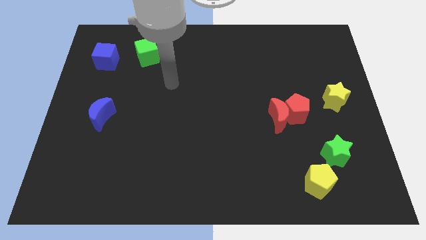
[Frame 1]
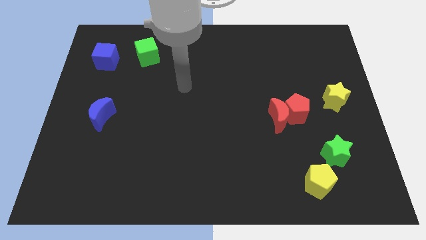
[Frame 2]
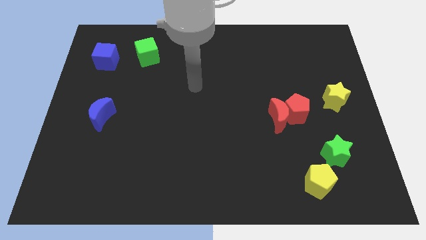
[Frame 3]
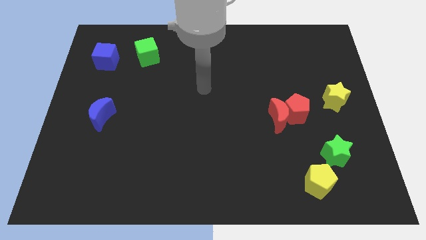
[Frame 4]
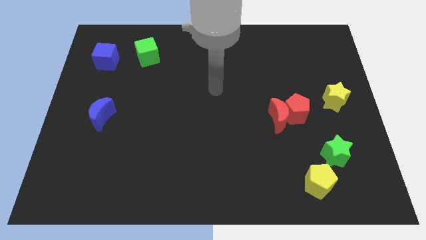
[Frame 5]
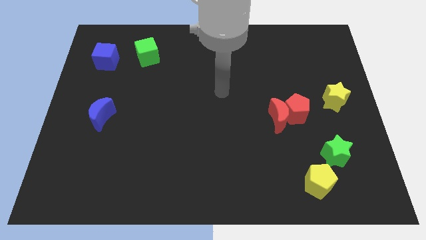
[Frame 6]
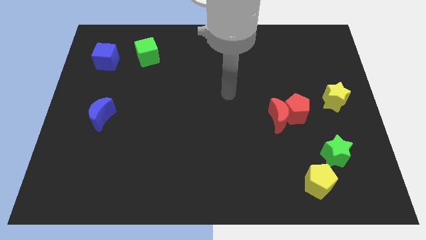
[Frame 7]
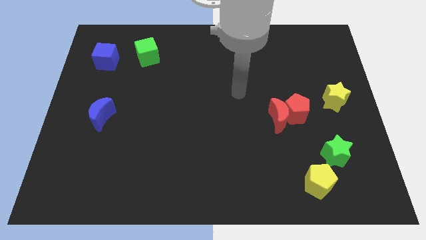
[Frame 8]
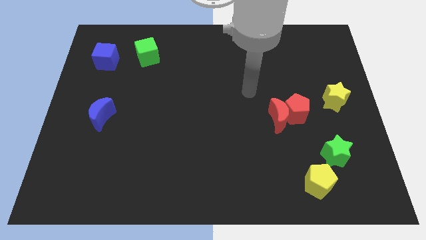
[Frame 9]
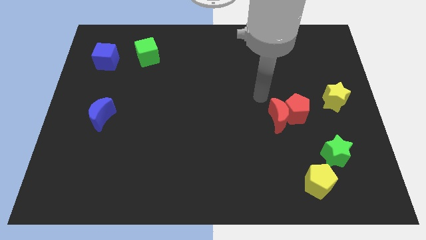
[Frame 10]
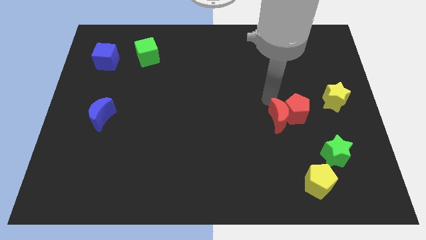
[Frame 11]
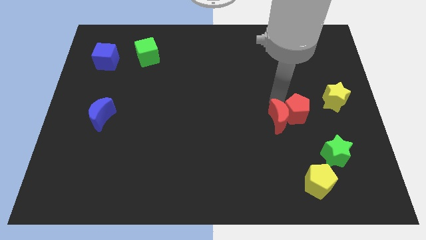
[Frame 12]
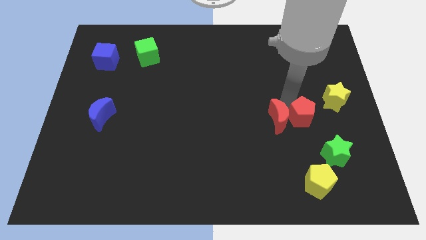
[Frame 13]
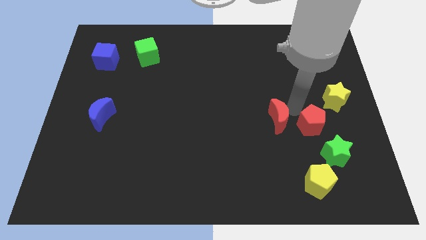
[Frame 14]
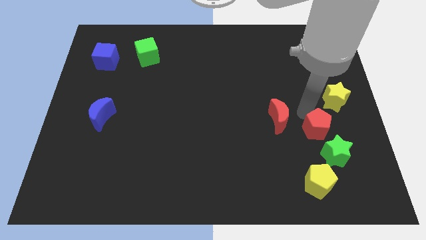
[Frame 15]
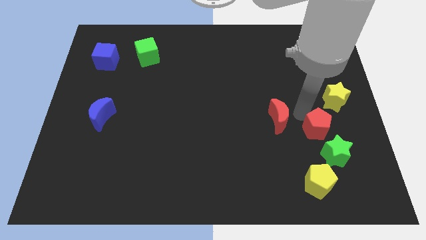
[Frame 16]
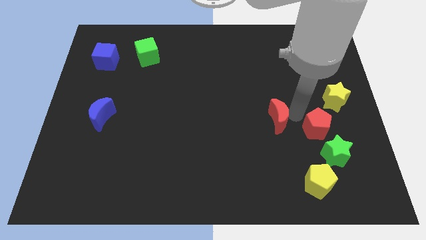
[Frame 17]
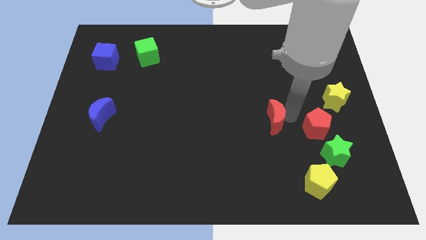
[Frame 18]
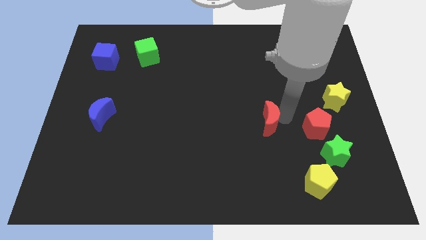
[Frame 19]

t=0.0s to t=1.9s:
move the red moon away from the red pentagon

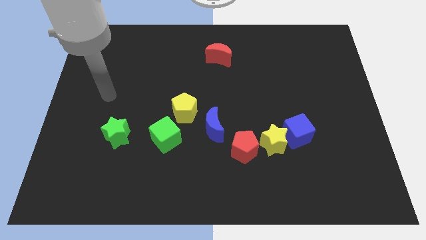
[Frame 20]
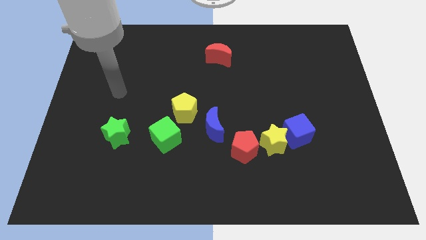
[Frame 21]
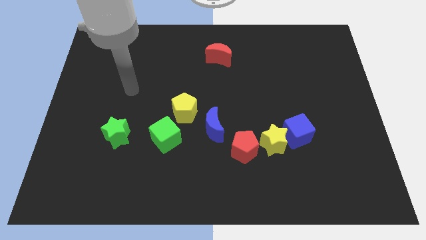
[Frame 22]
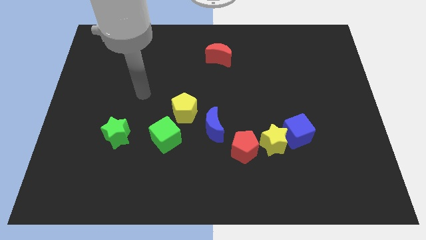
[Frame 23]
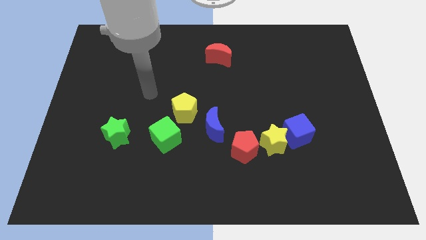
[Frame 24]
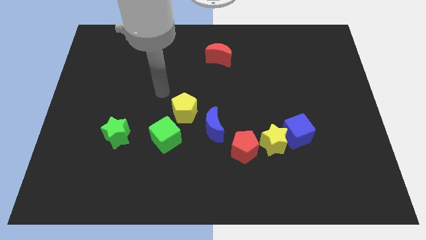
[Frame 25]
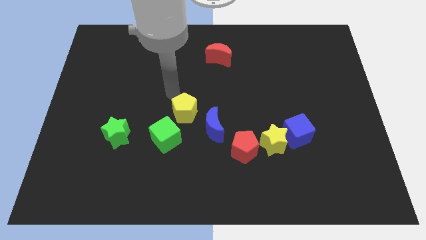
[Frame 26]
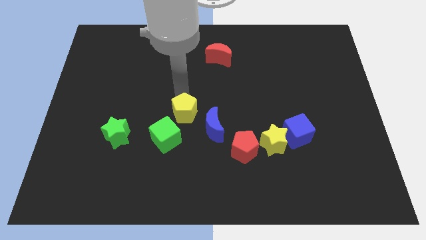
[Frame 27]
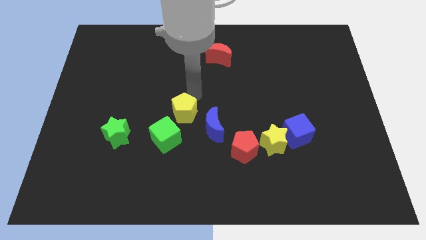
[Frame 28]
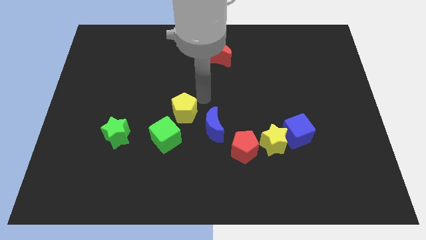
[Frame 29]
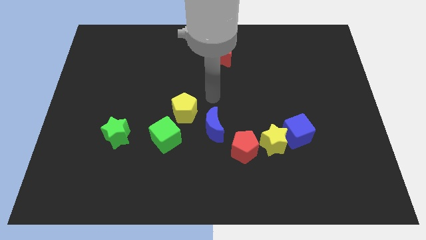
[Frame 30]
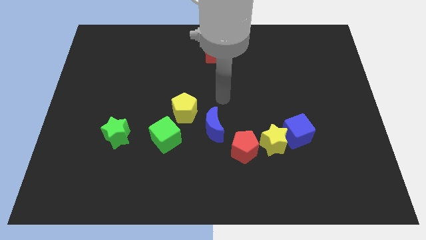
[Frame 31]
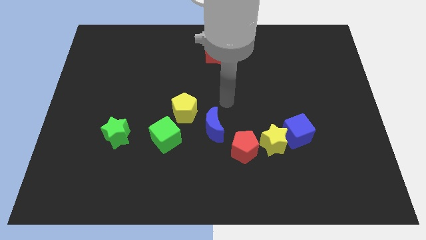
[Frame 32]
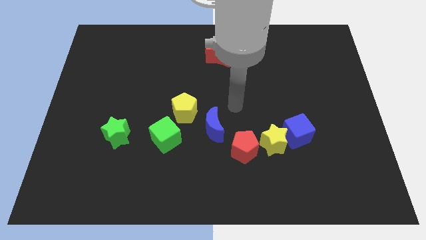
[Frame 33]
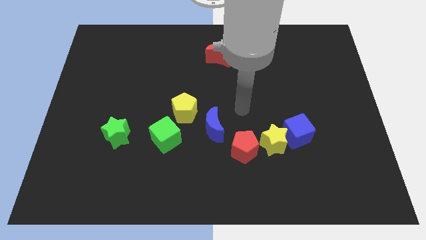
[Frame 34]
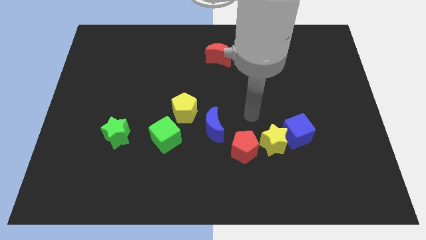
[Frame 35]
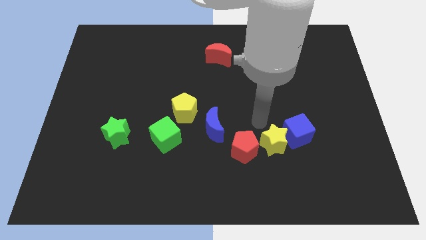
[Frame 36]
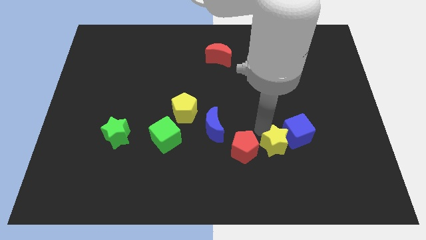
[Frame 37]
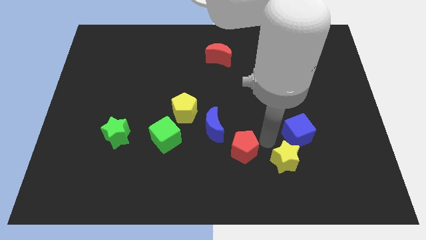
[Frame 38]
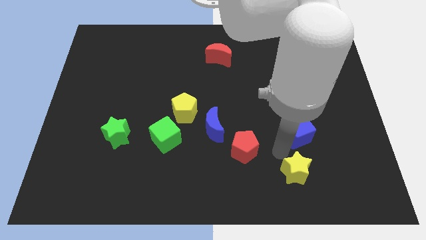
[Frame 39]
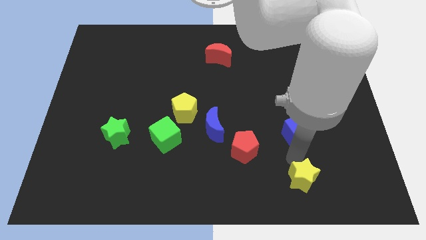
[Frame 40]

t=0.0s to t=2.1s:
move the blue cube away from the yellow star

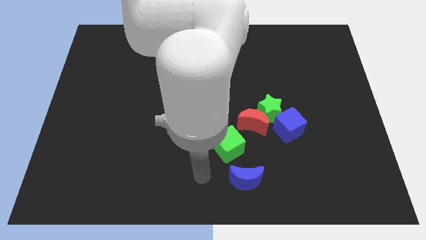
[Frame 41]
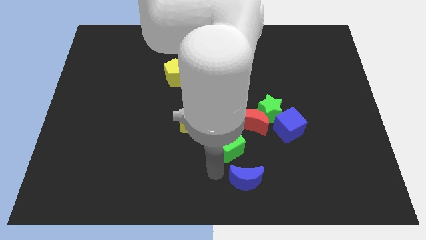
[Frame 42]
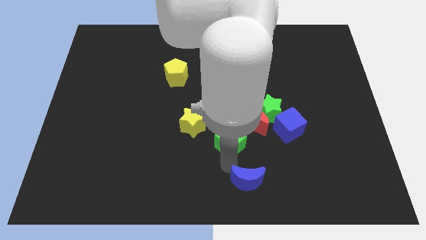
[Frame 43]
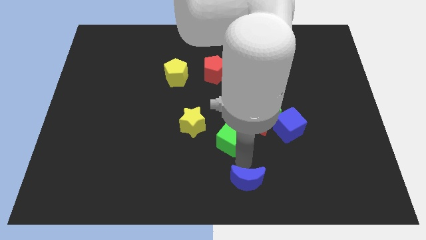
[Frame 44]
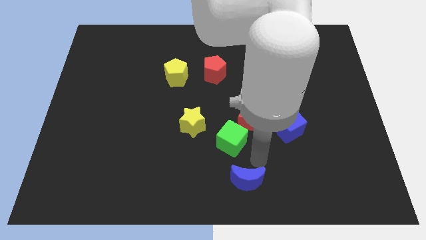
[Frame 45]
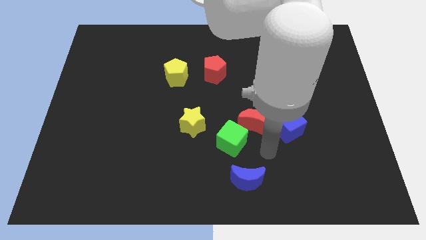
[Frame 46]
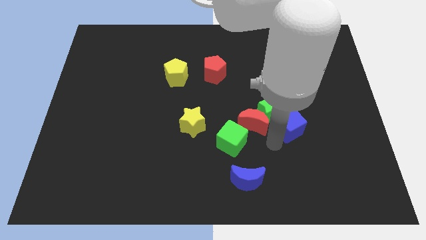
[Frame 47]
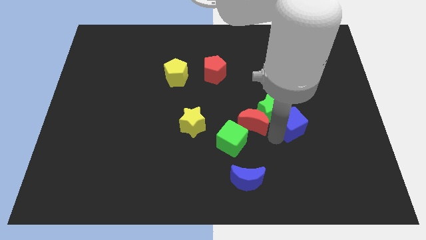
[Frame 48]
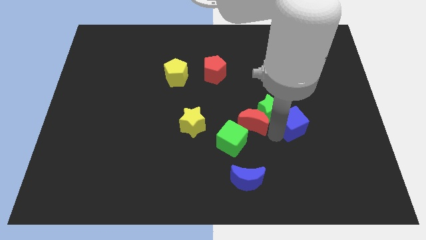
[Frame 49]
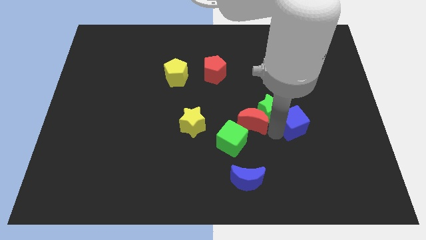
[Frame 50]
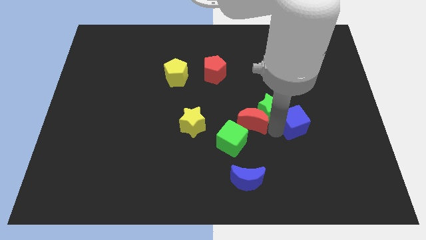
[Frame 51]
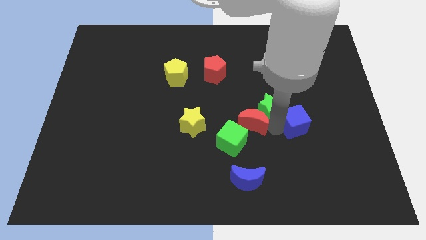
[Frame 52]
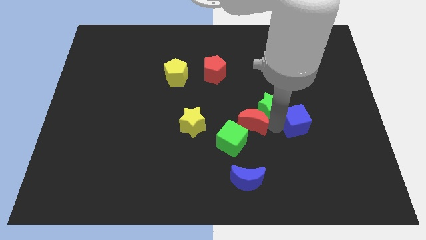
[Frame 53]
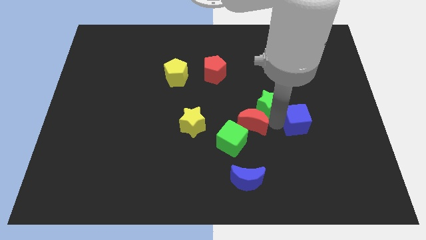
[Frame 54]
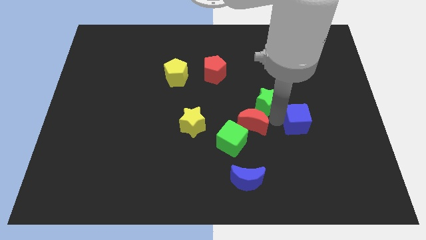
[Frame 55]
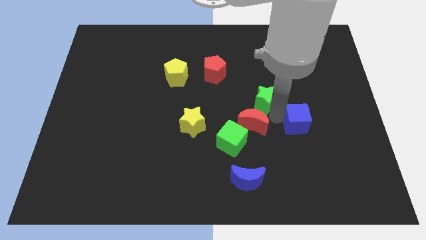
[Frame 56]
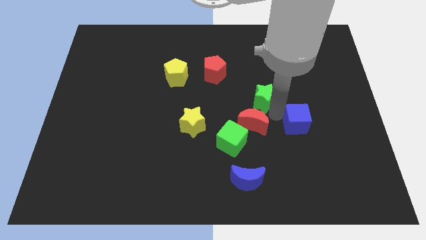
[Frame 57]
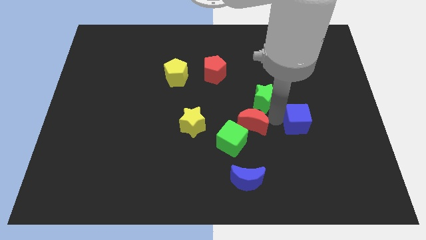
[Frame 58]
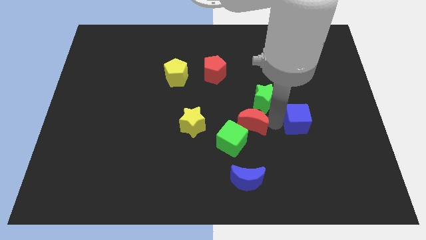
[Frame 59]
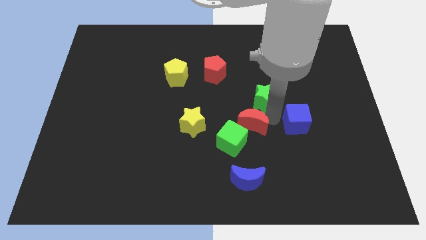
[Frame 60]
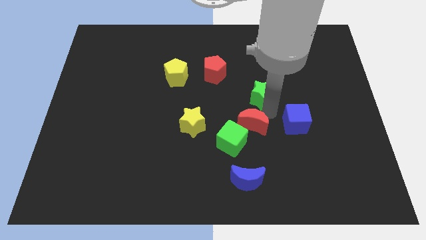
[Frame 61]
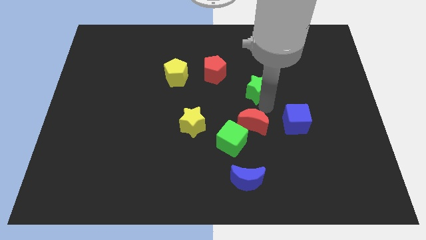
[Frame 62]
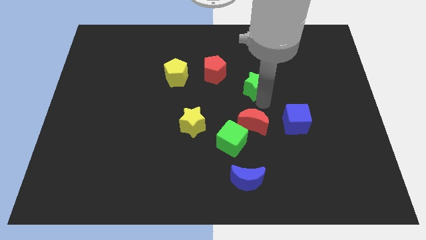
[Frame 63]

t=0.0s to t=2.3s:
separate the green star from the red moon and blue cube

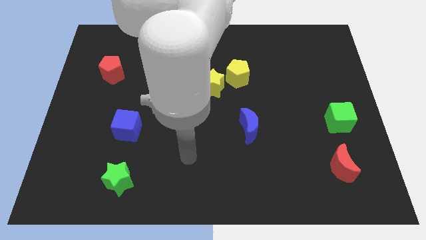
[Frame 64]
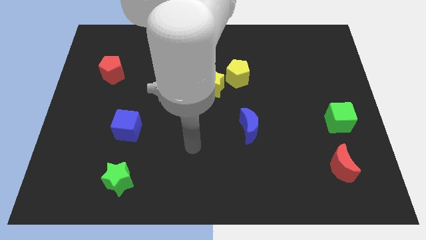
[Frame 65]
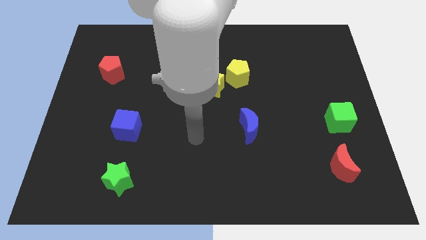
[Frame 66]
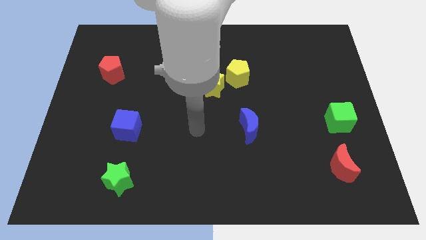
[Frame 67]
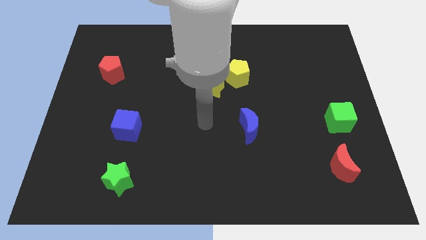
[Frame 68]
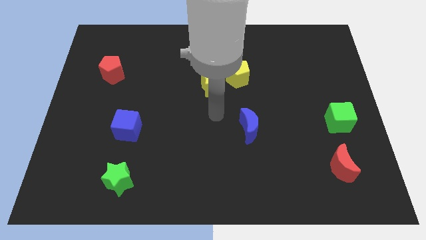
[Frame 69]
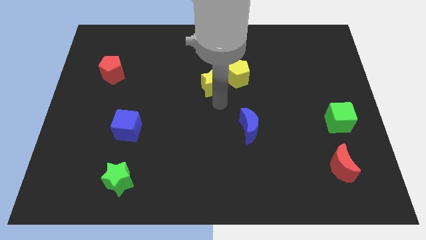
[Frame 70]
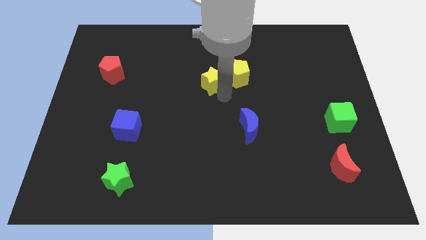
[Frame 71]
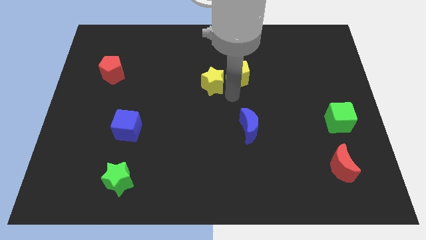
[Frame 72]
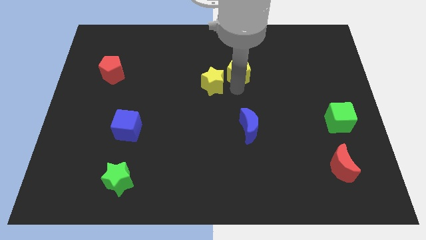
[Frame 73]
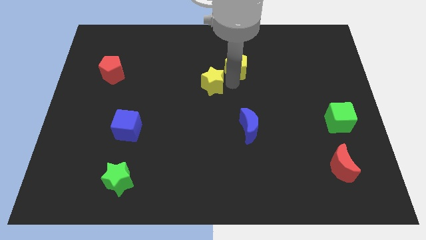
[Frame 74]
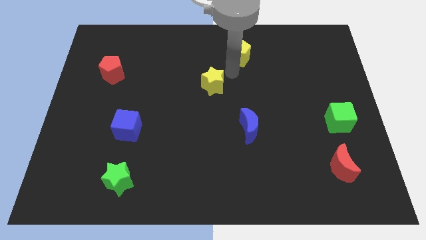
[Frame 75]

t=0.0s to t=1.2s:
move the yellow star away from the yellow pentagon

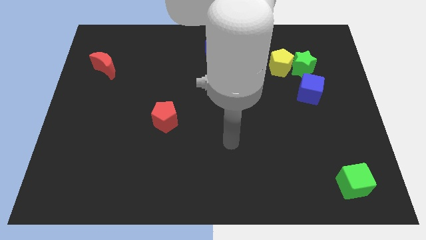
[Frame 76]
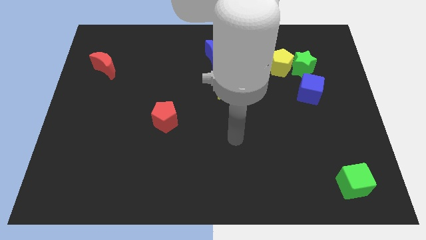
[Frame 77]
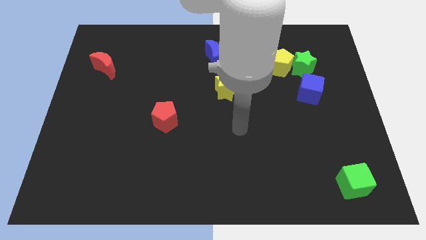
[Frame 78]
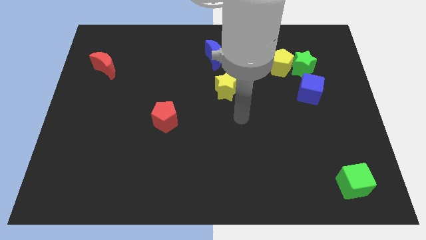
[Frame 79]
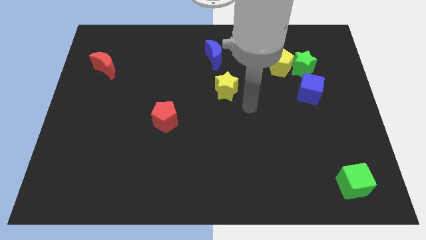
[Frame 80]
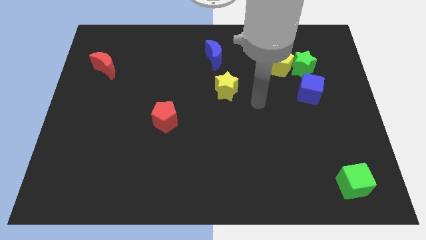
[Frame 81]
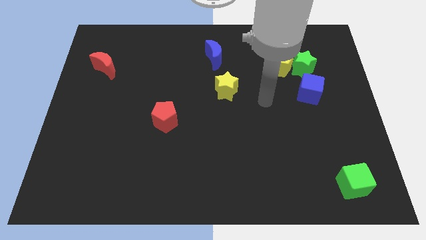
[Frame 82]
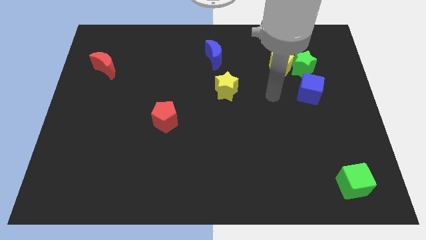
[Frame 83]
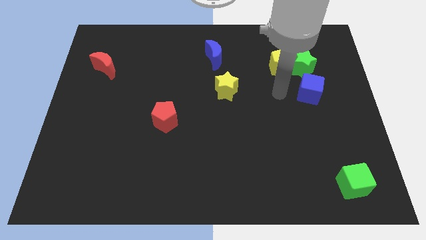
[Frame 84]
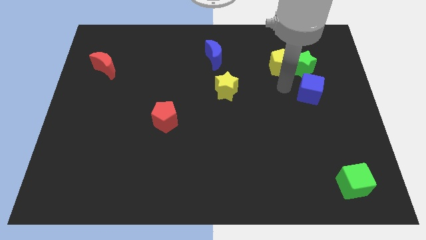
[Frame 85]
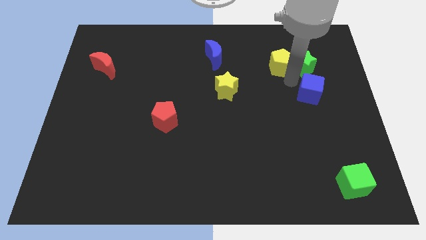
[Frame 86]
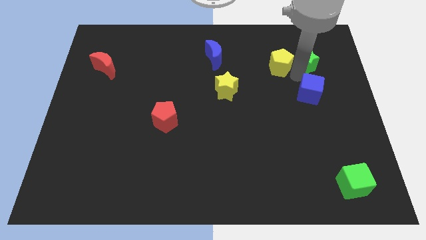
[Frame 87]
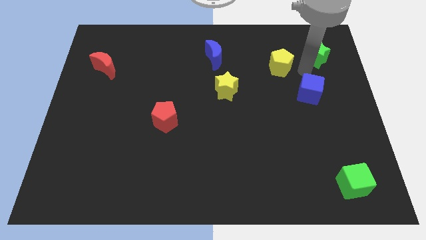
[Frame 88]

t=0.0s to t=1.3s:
separate the yellow pentagon from the green star

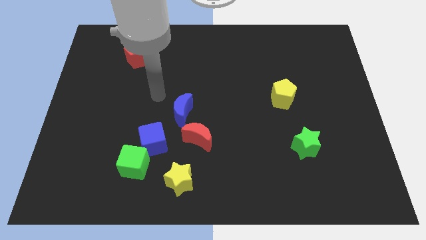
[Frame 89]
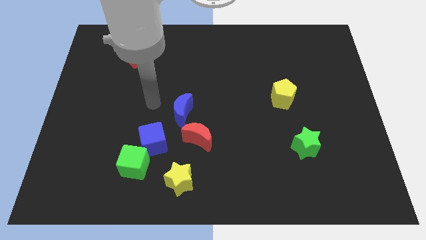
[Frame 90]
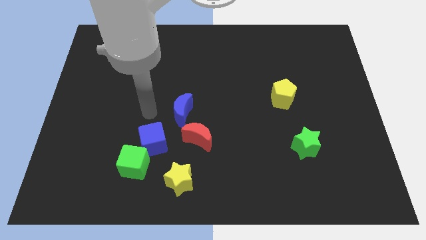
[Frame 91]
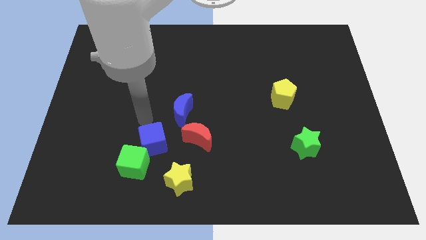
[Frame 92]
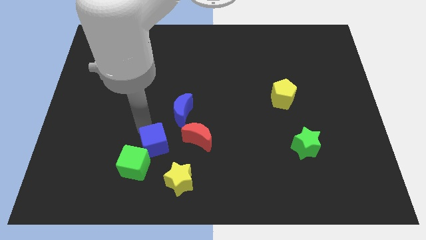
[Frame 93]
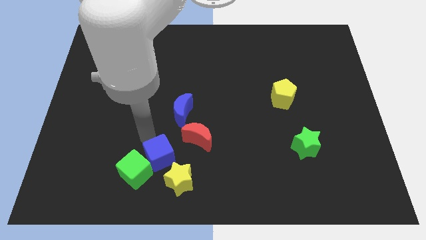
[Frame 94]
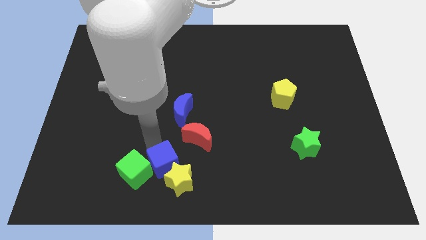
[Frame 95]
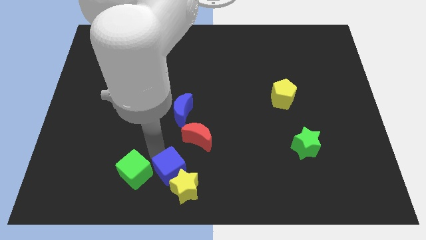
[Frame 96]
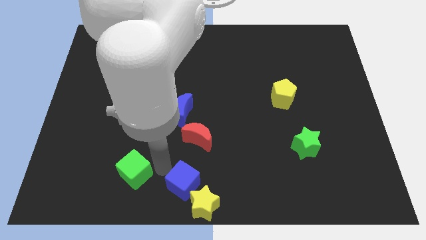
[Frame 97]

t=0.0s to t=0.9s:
separate the green cube from the blue cube and yellow star
